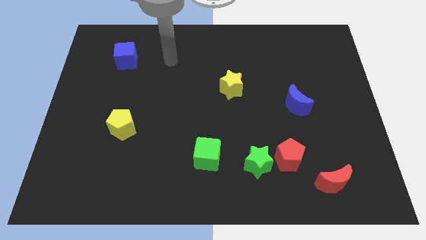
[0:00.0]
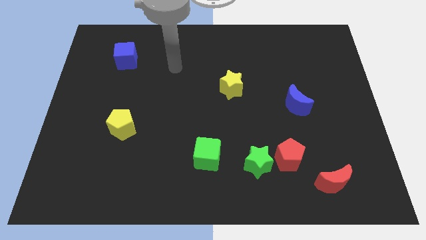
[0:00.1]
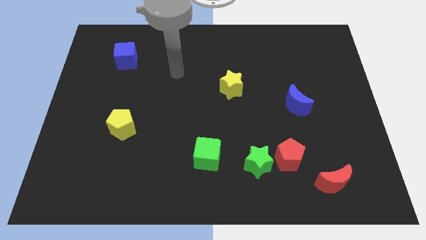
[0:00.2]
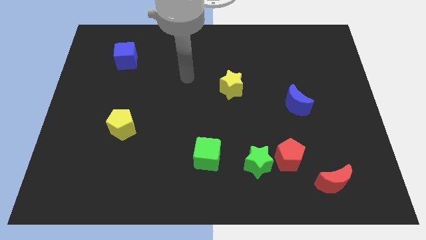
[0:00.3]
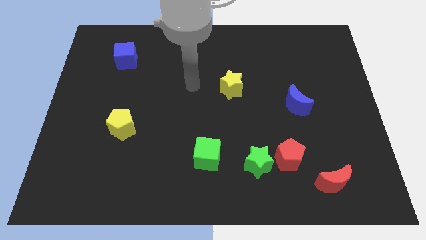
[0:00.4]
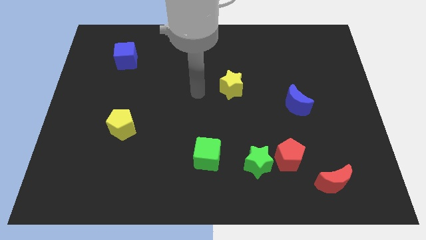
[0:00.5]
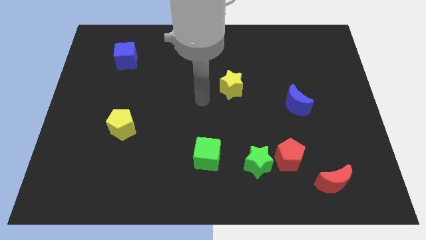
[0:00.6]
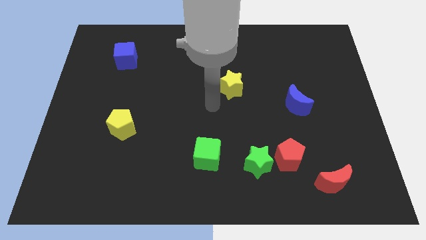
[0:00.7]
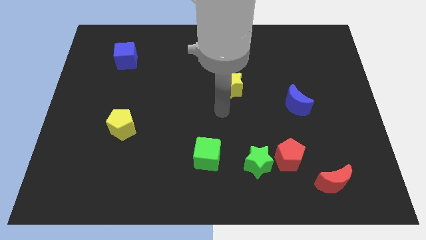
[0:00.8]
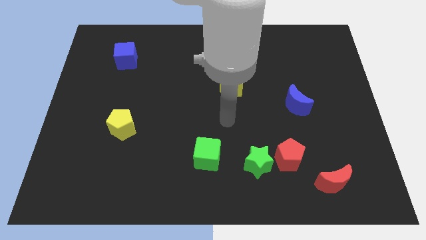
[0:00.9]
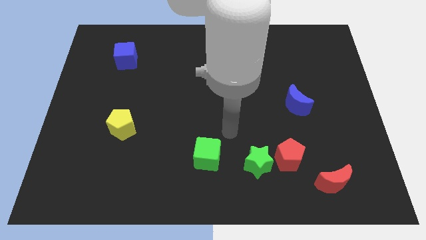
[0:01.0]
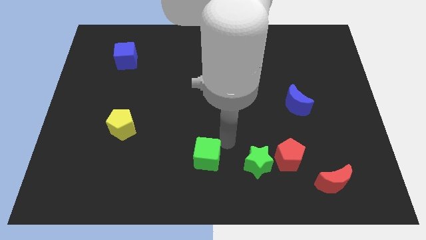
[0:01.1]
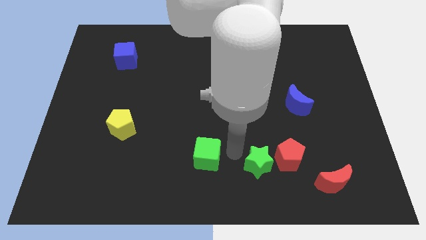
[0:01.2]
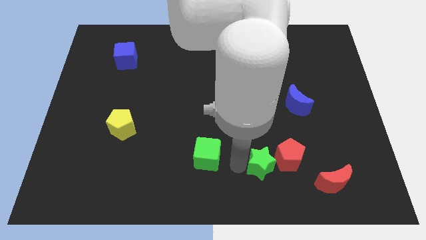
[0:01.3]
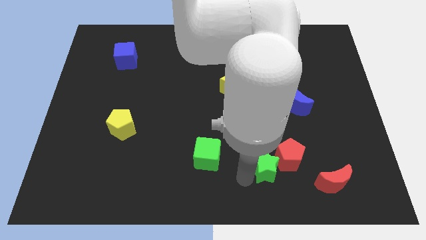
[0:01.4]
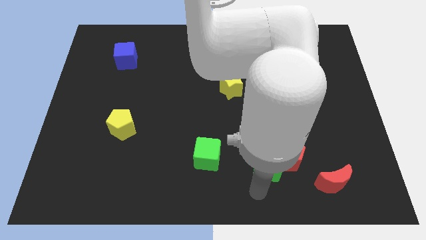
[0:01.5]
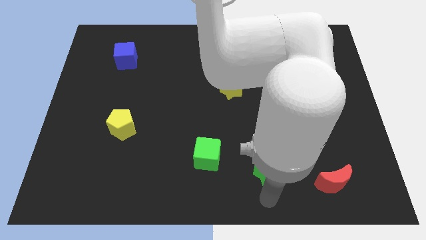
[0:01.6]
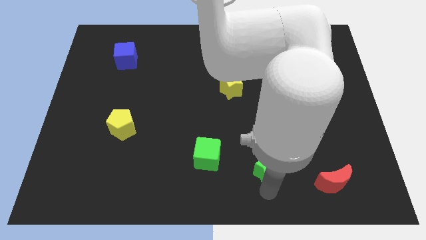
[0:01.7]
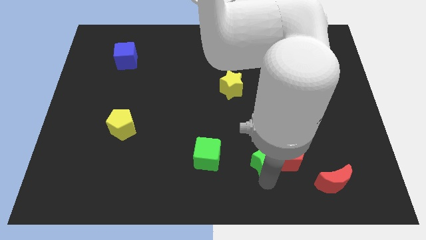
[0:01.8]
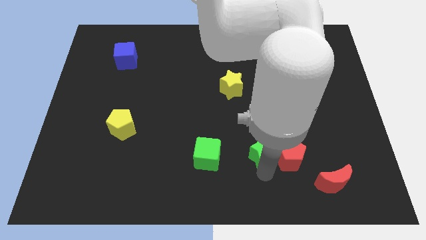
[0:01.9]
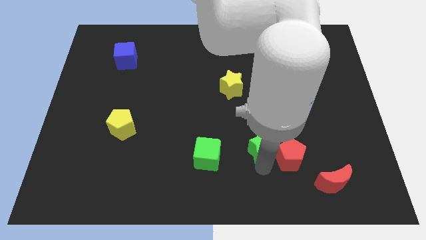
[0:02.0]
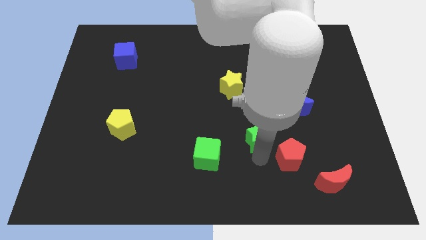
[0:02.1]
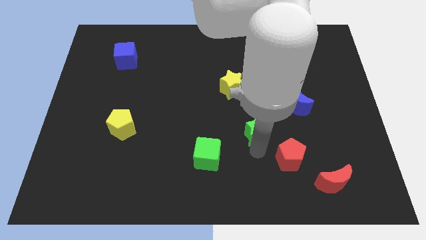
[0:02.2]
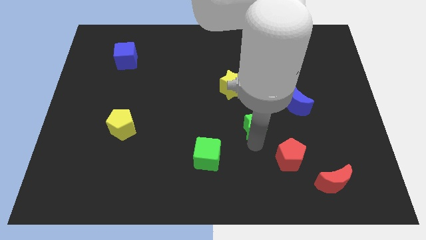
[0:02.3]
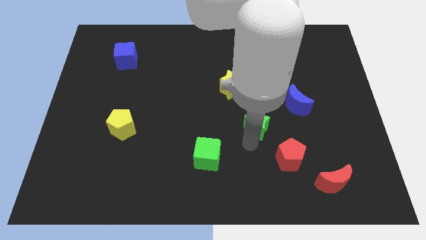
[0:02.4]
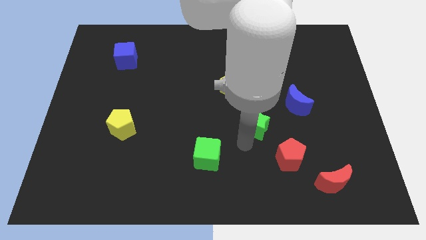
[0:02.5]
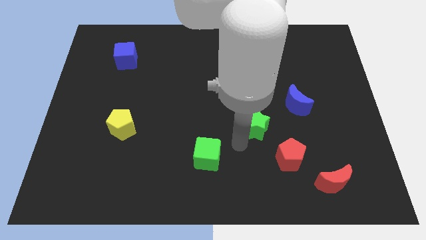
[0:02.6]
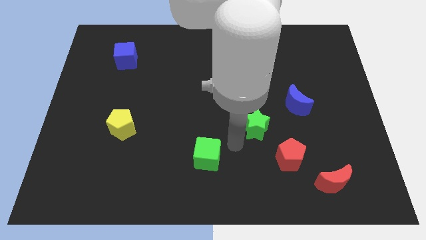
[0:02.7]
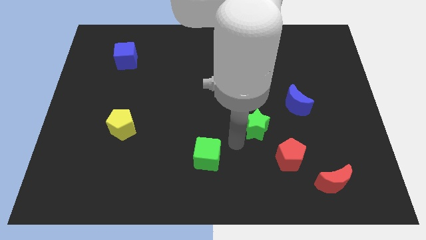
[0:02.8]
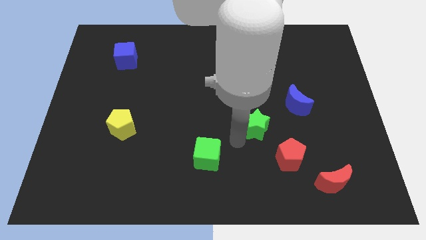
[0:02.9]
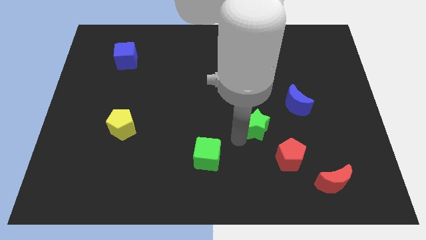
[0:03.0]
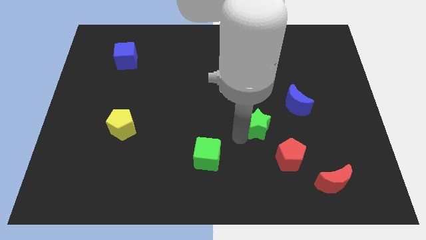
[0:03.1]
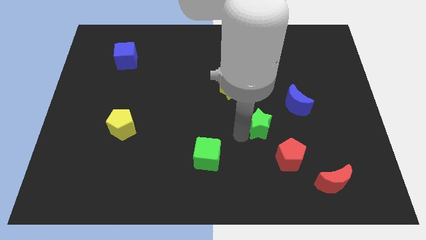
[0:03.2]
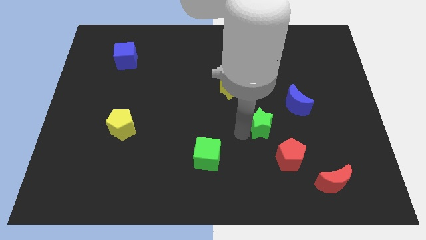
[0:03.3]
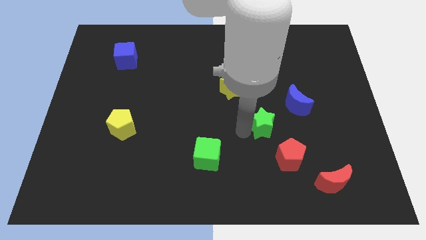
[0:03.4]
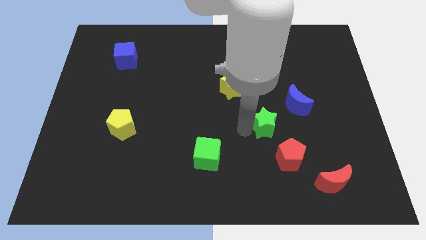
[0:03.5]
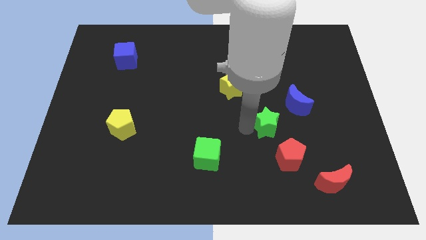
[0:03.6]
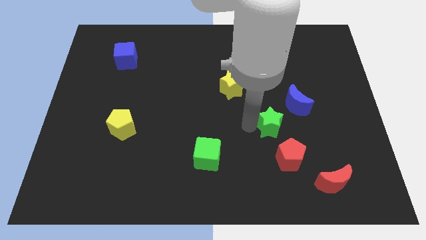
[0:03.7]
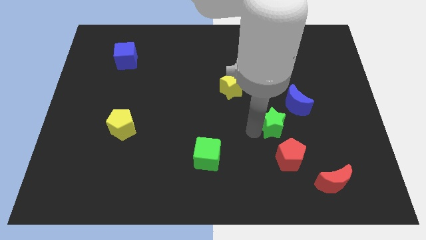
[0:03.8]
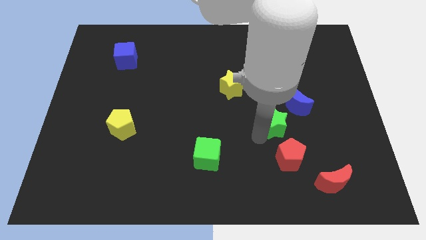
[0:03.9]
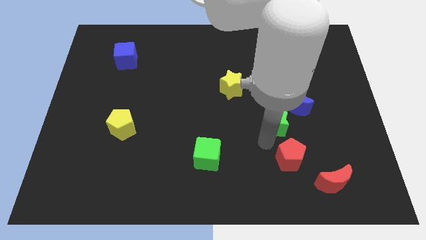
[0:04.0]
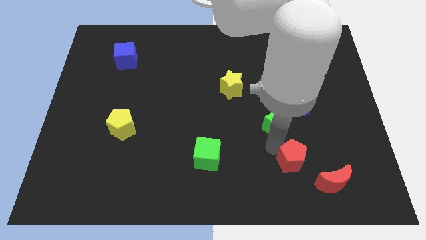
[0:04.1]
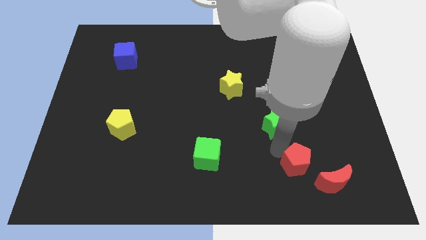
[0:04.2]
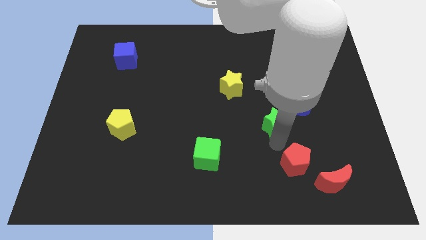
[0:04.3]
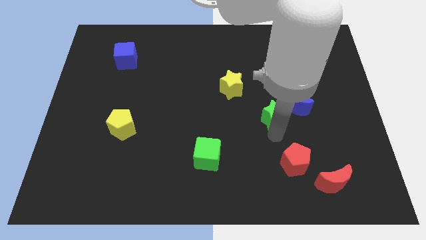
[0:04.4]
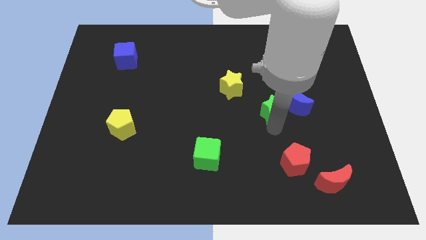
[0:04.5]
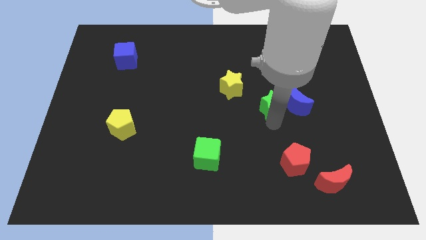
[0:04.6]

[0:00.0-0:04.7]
slide the green star diagonally up and to the left of the blue moon

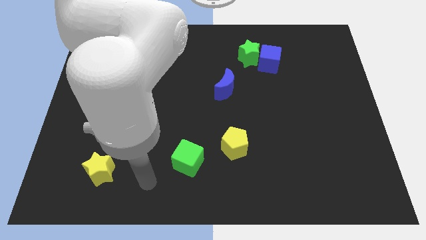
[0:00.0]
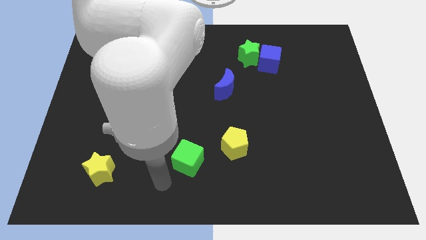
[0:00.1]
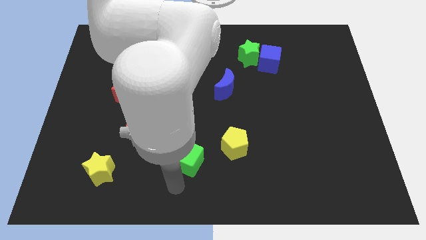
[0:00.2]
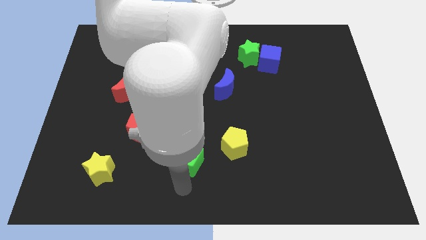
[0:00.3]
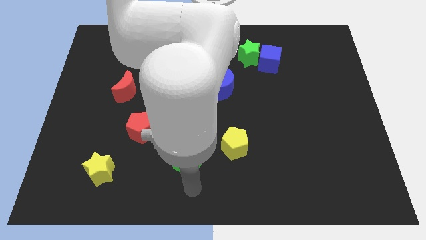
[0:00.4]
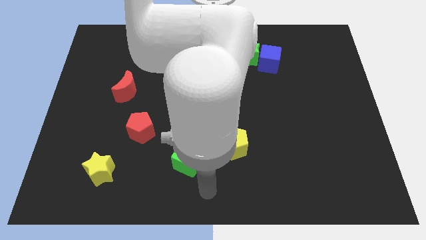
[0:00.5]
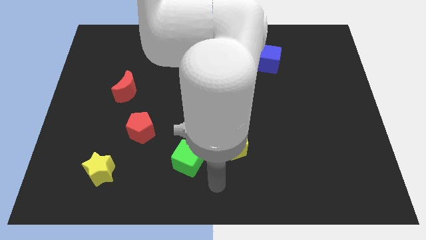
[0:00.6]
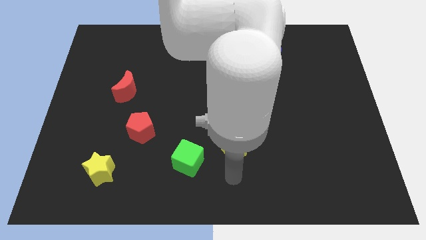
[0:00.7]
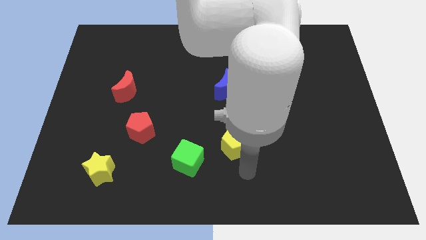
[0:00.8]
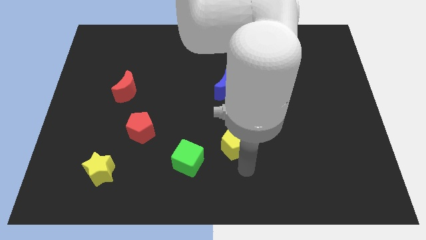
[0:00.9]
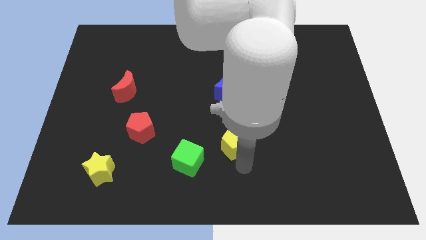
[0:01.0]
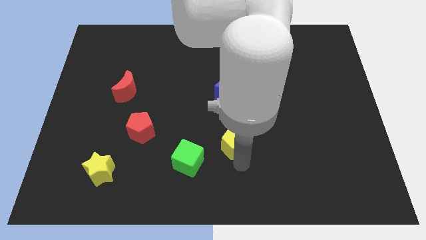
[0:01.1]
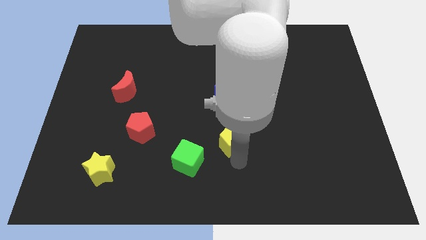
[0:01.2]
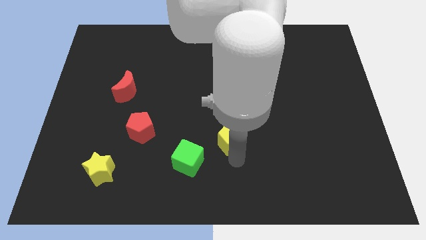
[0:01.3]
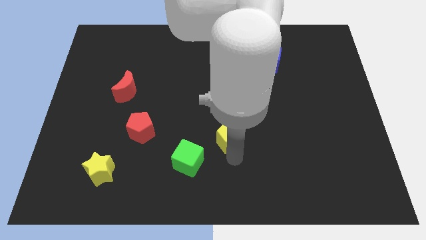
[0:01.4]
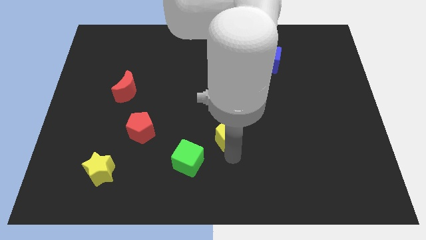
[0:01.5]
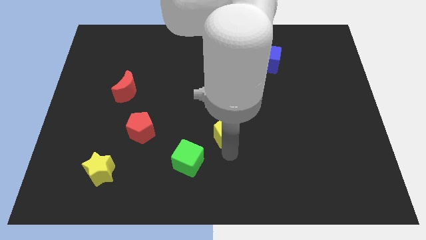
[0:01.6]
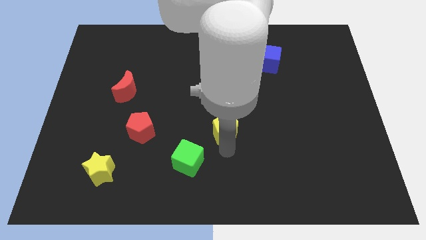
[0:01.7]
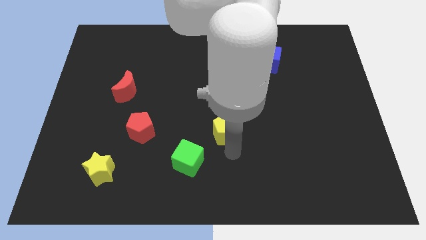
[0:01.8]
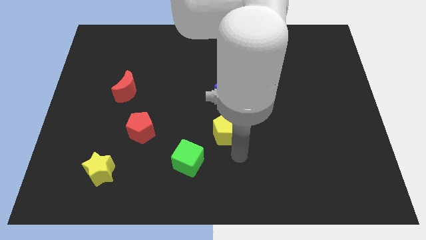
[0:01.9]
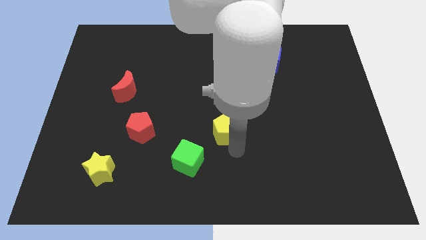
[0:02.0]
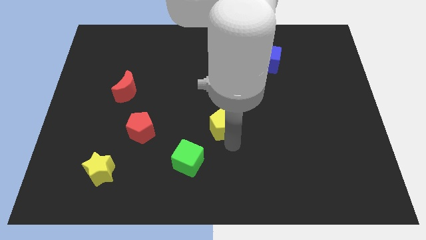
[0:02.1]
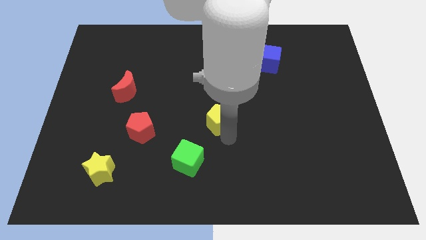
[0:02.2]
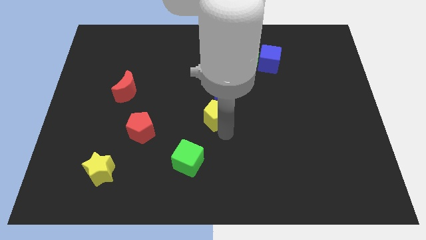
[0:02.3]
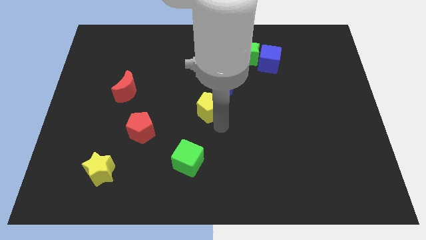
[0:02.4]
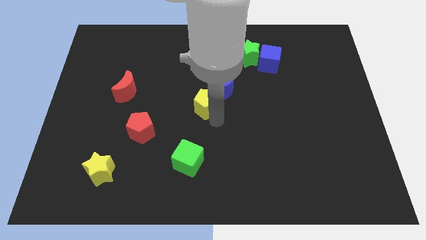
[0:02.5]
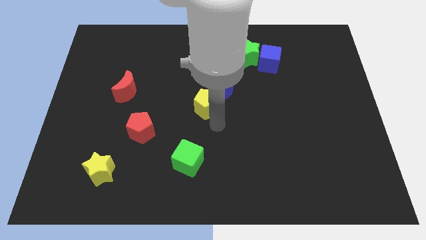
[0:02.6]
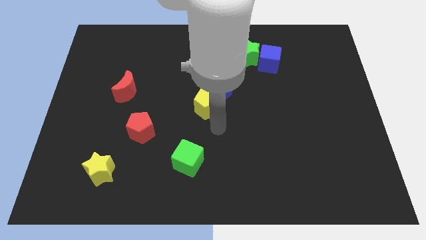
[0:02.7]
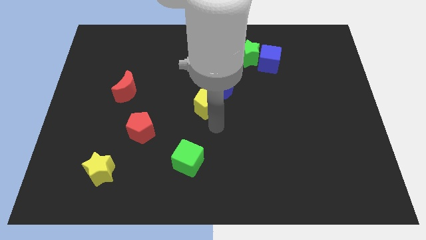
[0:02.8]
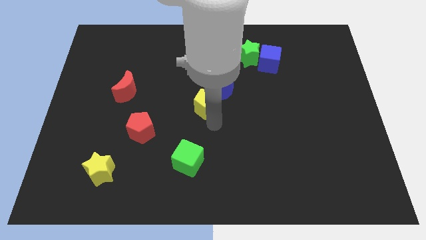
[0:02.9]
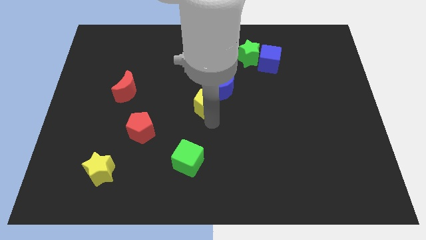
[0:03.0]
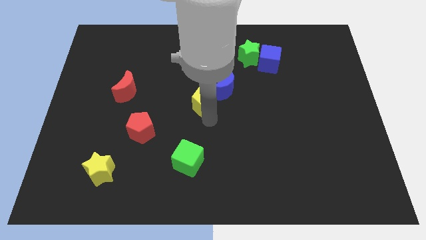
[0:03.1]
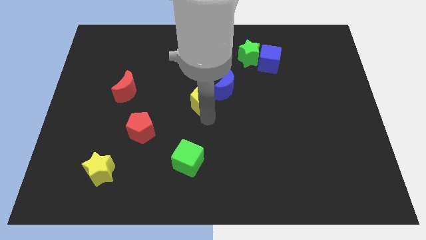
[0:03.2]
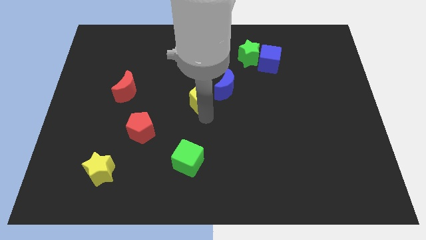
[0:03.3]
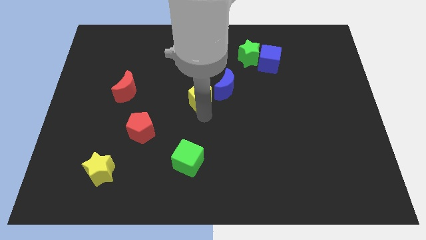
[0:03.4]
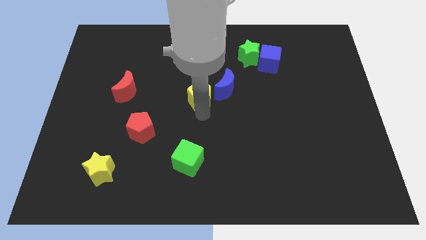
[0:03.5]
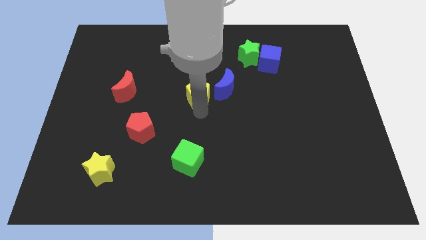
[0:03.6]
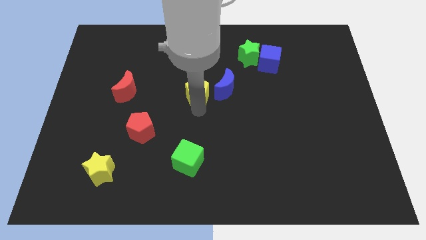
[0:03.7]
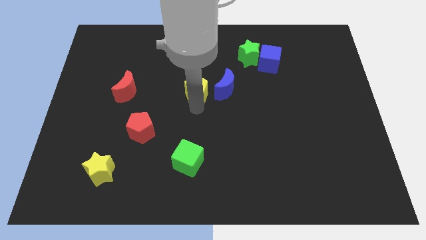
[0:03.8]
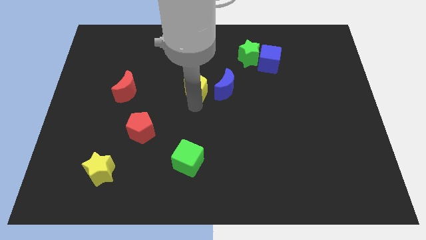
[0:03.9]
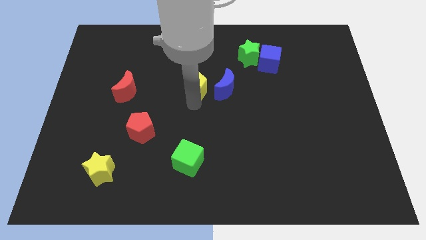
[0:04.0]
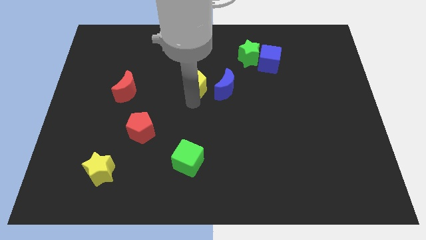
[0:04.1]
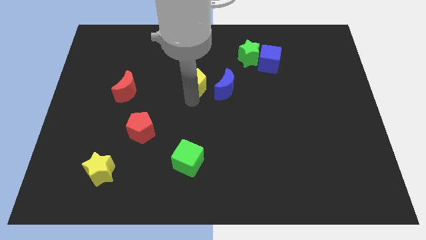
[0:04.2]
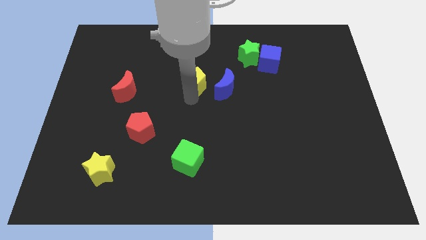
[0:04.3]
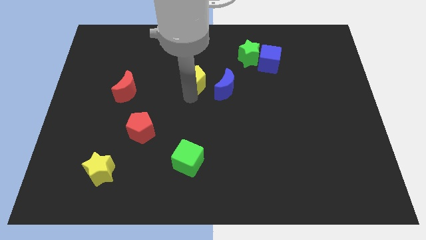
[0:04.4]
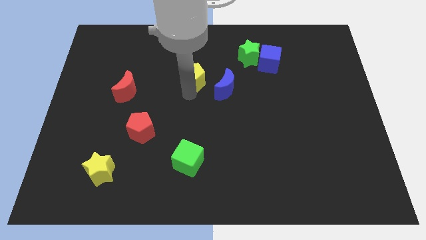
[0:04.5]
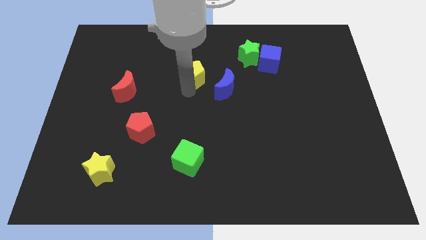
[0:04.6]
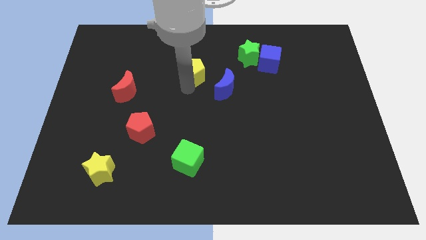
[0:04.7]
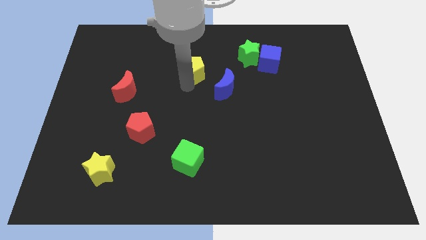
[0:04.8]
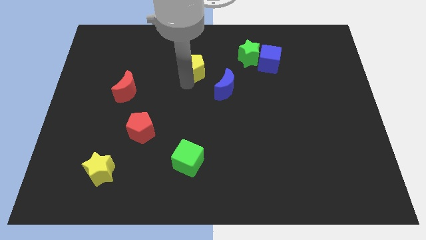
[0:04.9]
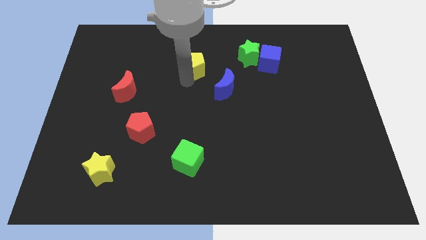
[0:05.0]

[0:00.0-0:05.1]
push the yellow pentagon left of the green star
